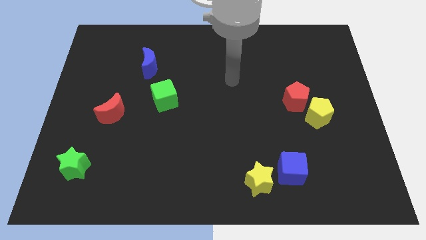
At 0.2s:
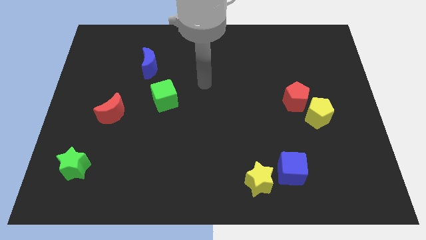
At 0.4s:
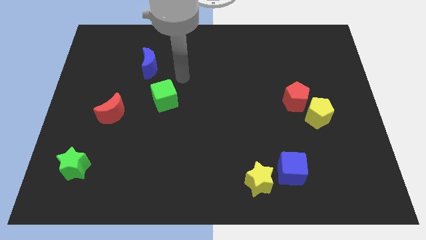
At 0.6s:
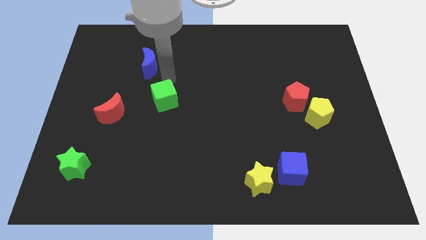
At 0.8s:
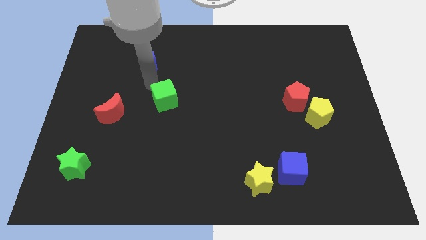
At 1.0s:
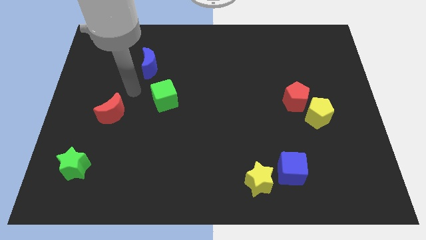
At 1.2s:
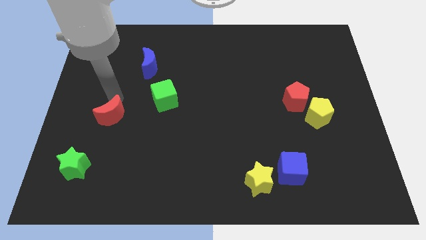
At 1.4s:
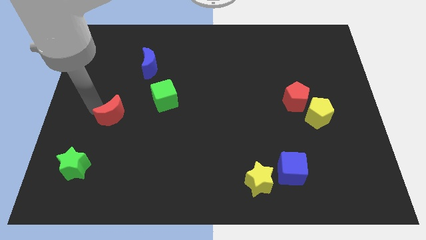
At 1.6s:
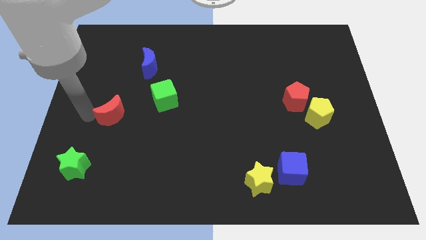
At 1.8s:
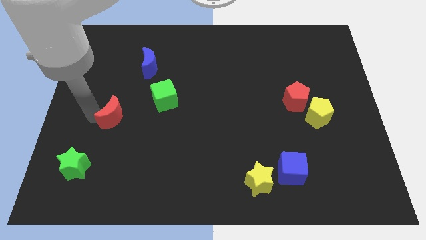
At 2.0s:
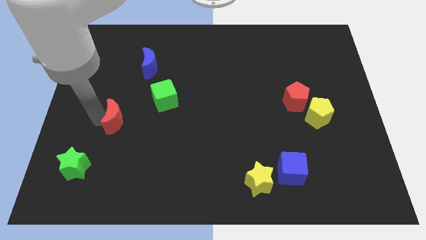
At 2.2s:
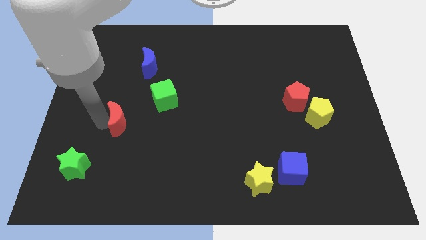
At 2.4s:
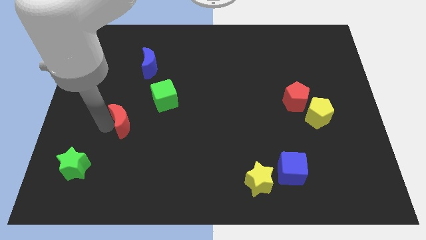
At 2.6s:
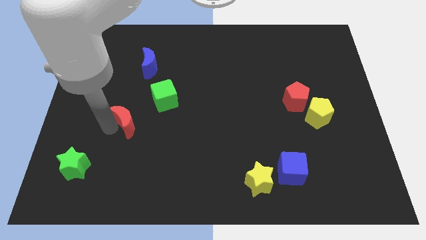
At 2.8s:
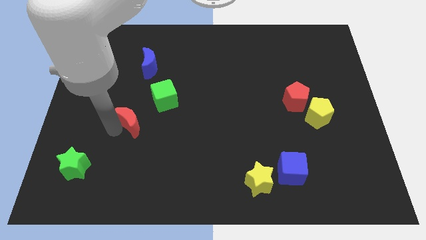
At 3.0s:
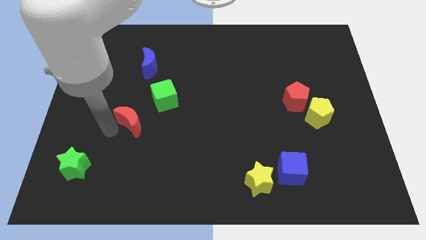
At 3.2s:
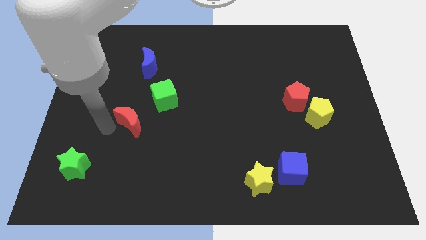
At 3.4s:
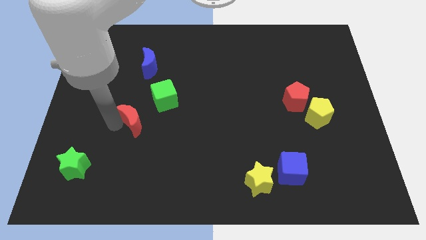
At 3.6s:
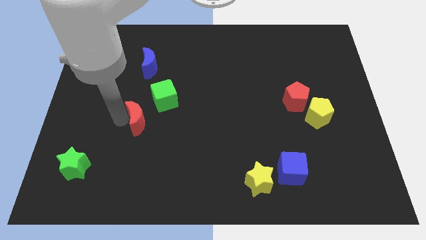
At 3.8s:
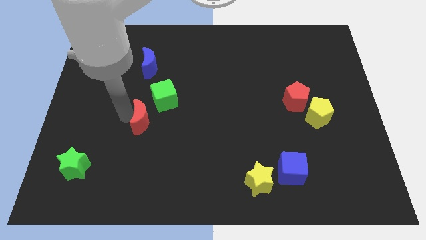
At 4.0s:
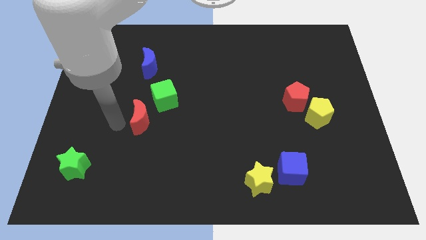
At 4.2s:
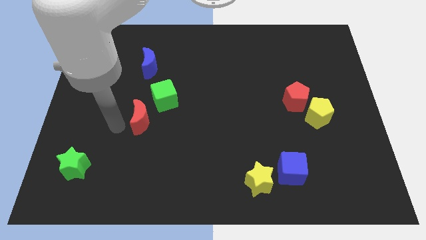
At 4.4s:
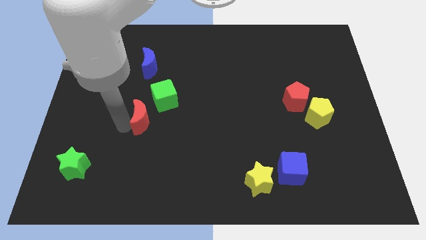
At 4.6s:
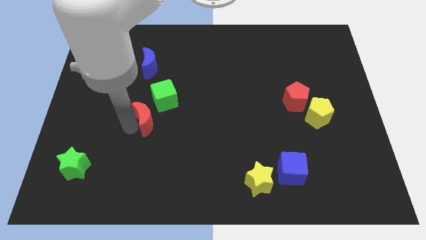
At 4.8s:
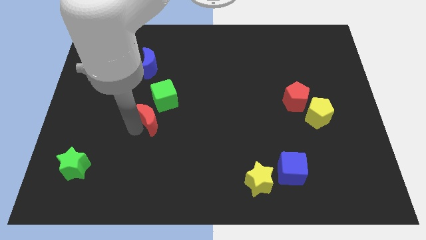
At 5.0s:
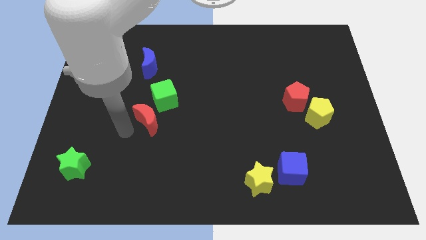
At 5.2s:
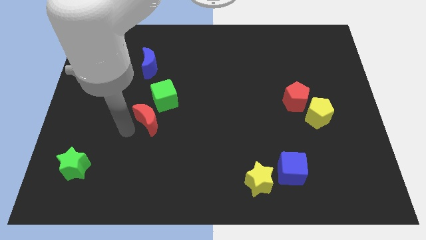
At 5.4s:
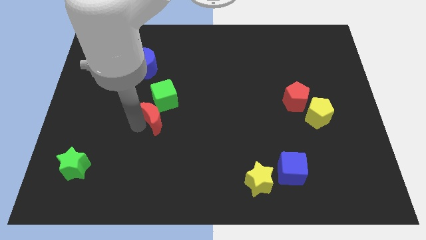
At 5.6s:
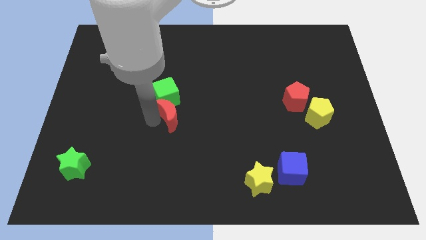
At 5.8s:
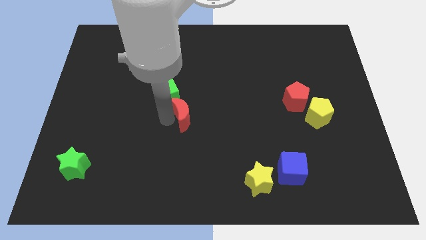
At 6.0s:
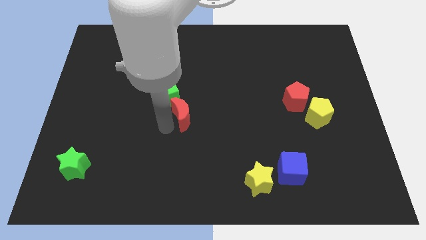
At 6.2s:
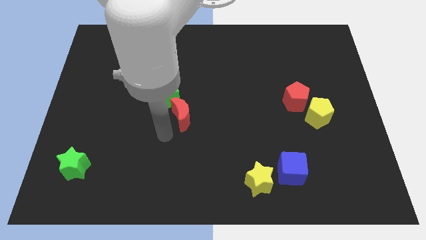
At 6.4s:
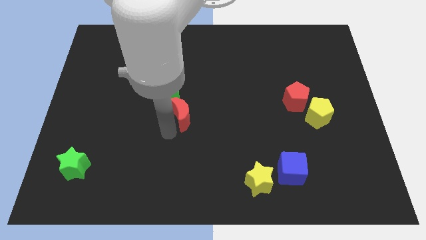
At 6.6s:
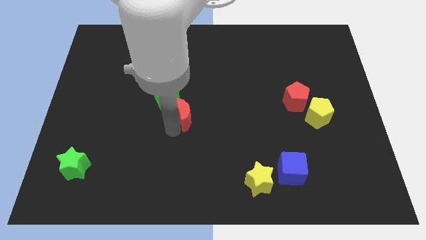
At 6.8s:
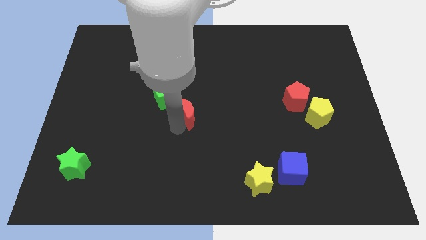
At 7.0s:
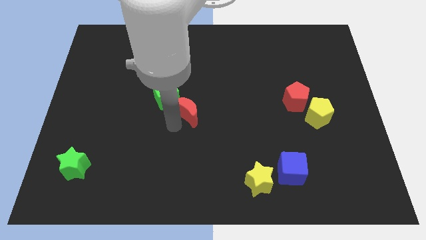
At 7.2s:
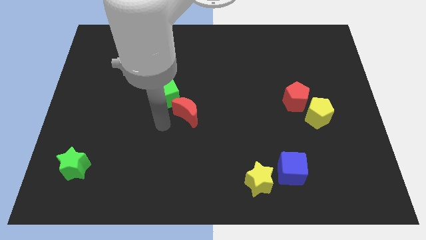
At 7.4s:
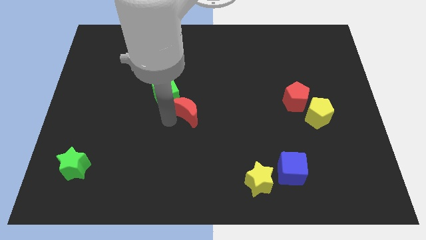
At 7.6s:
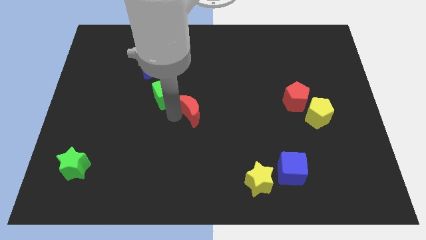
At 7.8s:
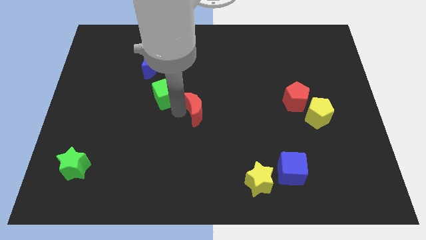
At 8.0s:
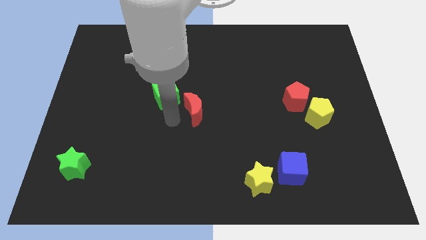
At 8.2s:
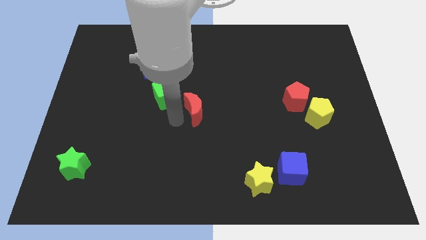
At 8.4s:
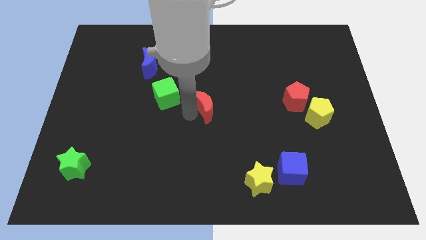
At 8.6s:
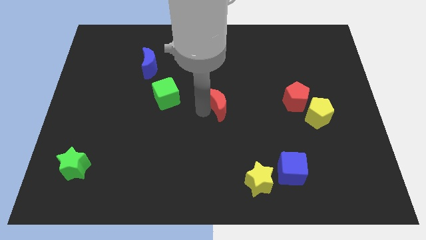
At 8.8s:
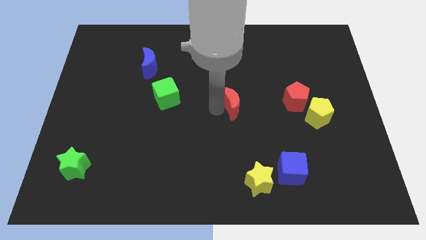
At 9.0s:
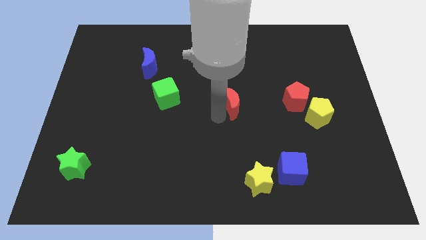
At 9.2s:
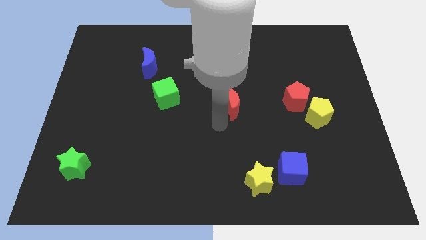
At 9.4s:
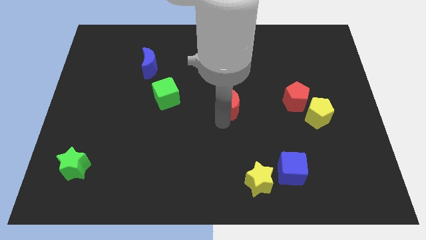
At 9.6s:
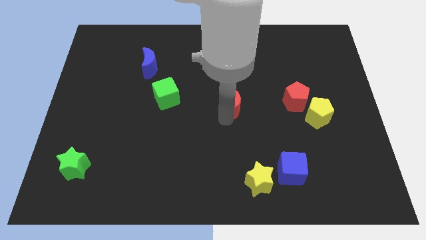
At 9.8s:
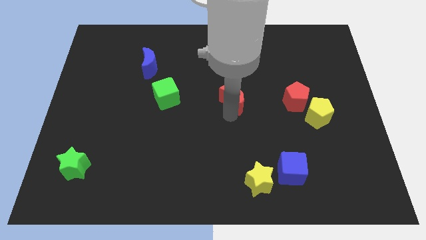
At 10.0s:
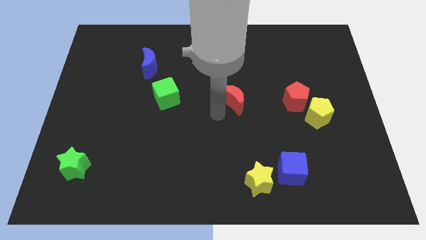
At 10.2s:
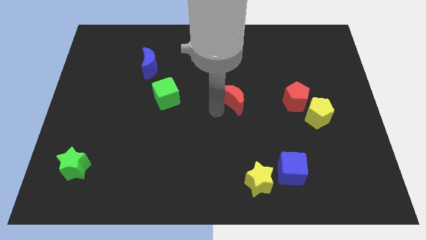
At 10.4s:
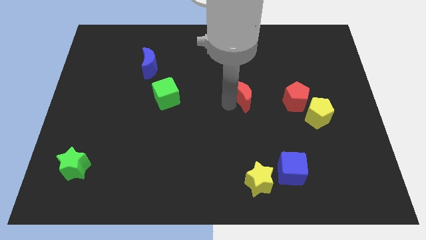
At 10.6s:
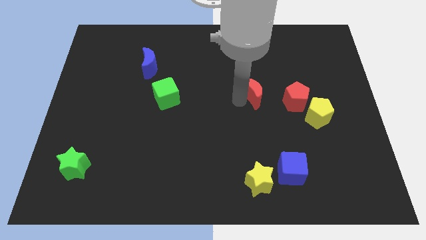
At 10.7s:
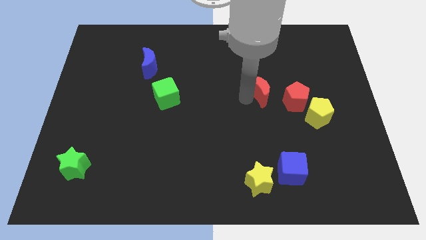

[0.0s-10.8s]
slide the red moon to the top left side of the red pentagon

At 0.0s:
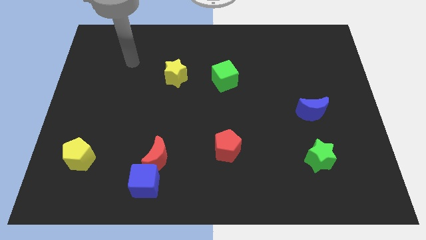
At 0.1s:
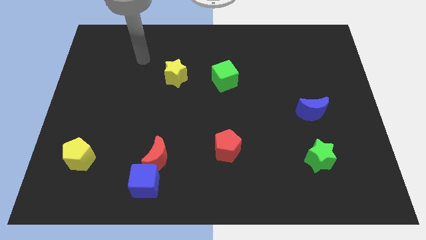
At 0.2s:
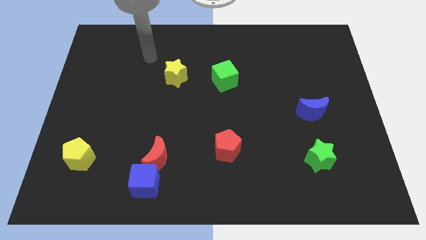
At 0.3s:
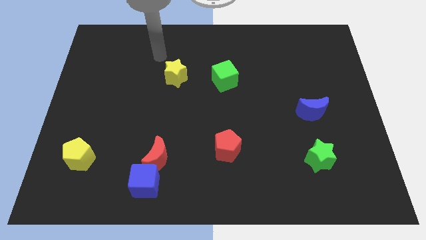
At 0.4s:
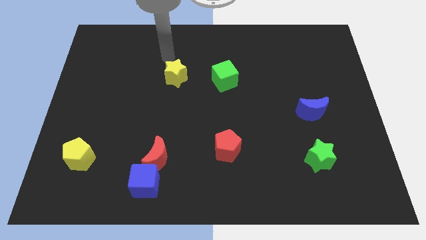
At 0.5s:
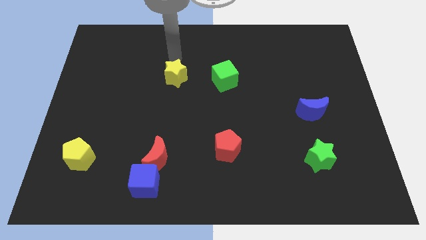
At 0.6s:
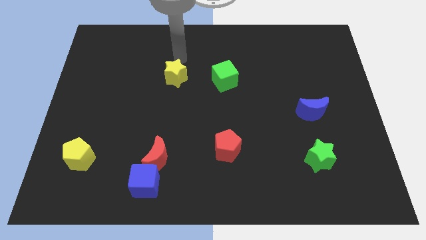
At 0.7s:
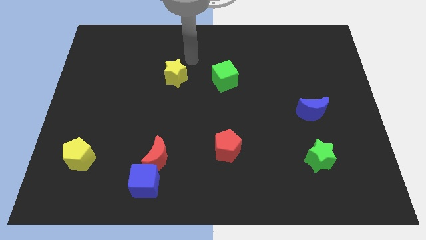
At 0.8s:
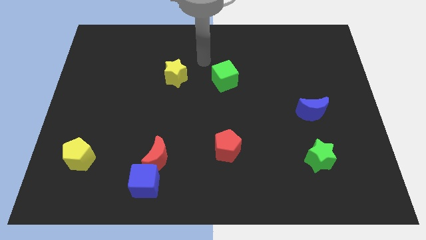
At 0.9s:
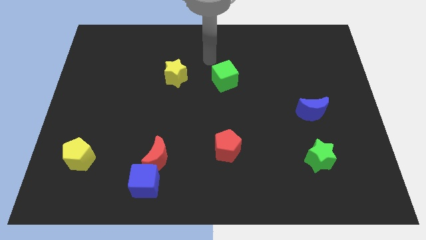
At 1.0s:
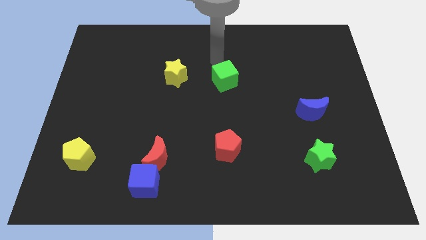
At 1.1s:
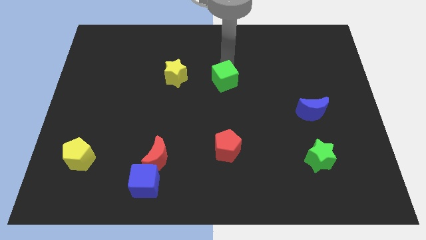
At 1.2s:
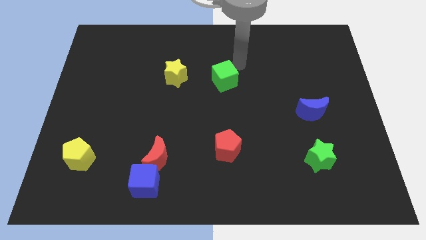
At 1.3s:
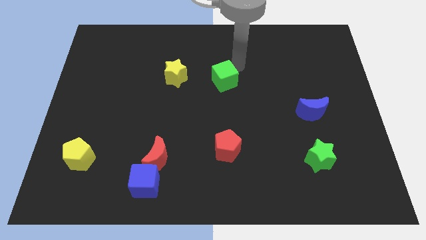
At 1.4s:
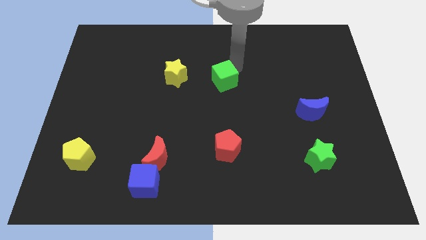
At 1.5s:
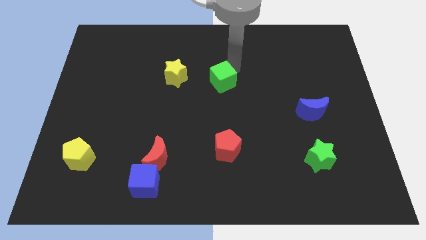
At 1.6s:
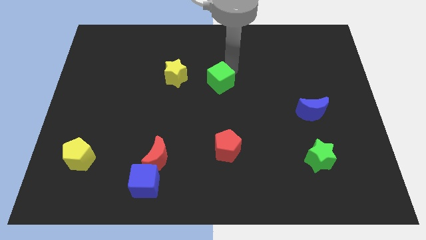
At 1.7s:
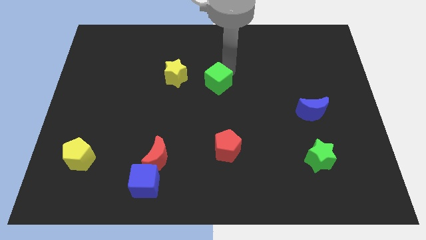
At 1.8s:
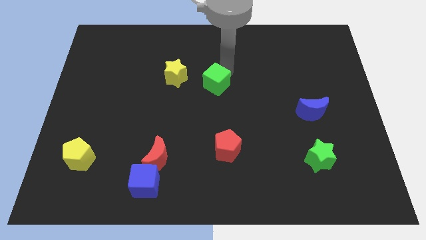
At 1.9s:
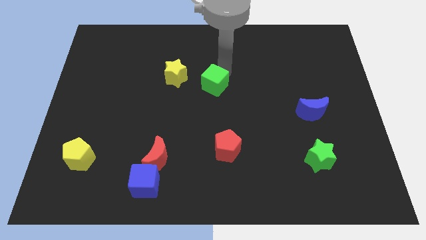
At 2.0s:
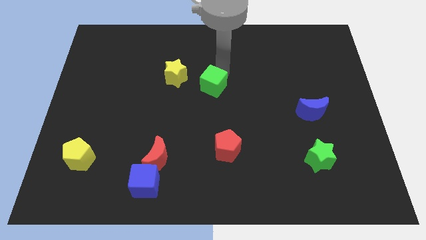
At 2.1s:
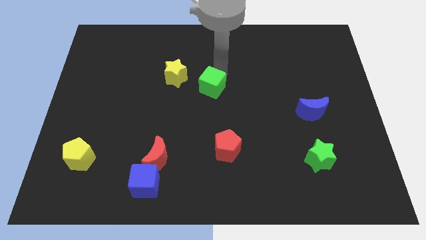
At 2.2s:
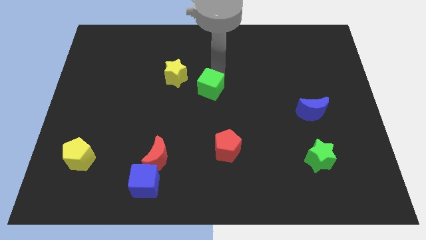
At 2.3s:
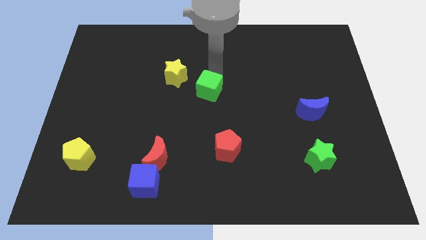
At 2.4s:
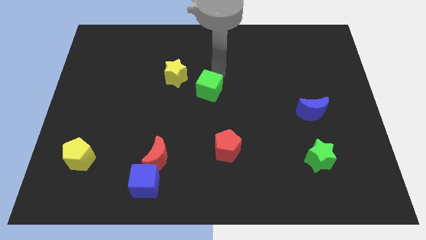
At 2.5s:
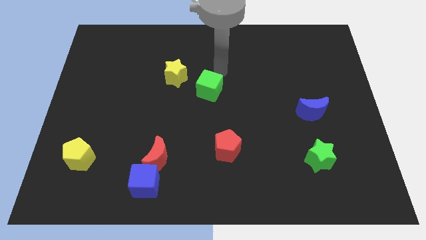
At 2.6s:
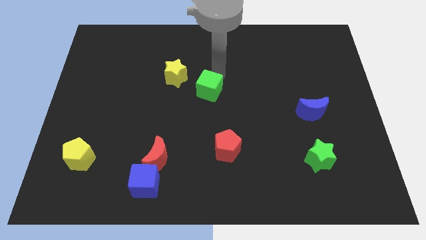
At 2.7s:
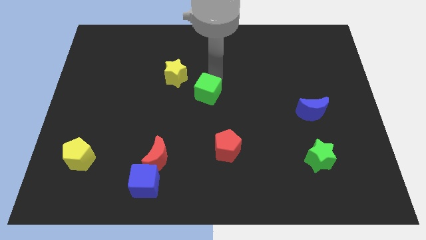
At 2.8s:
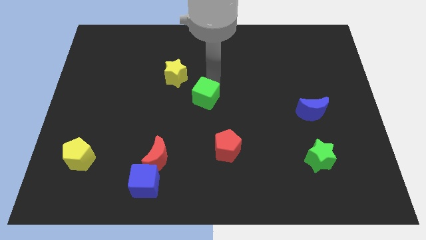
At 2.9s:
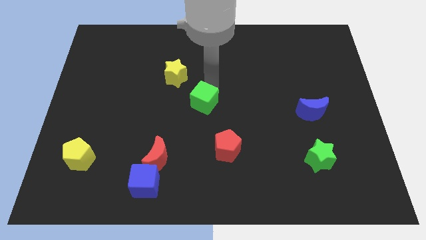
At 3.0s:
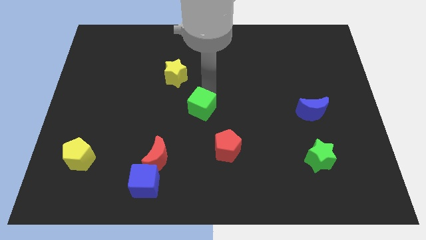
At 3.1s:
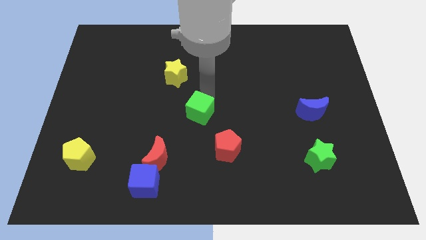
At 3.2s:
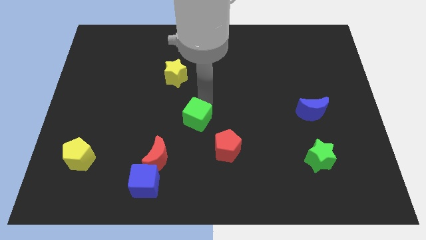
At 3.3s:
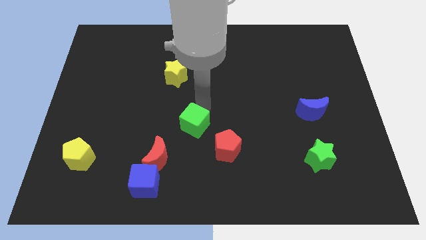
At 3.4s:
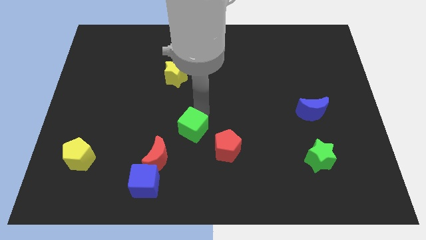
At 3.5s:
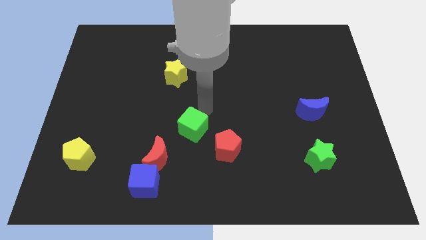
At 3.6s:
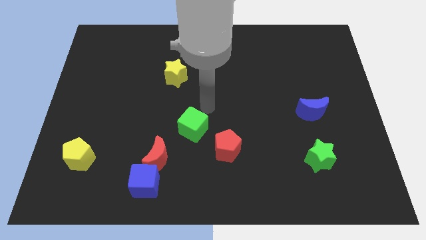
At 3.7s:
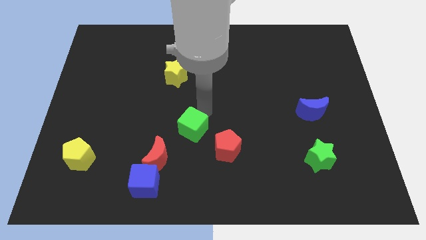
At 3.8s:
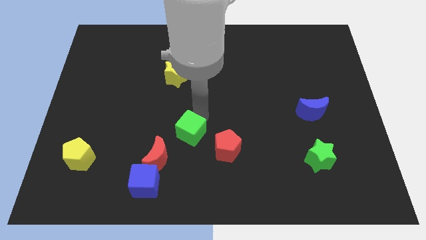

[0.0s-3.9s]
push the green cube to the left of the red pentagon
